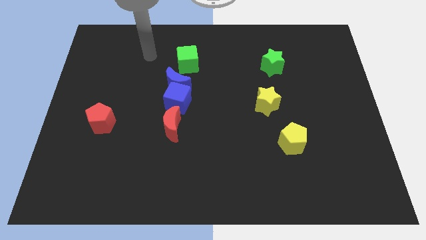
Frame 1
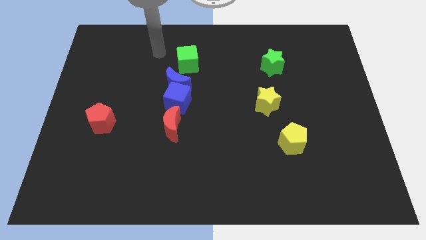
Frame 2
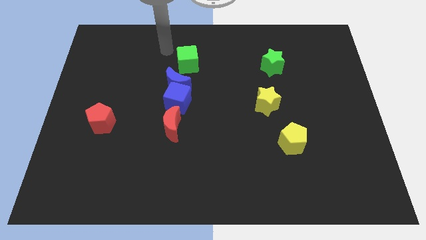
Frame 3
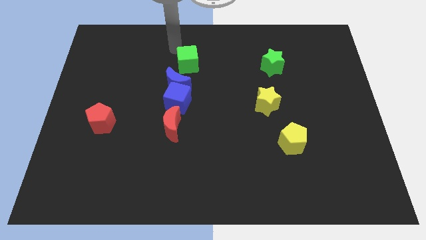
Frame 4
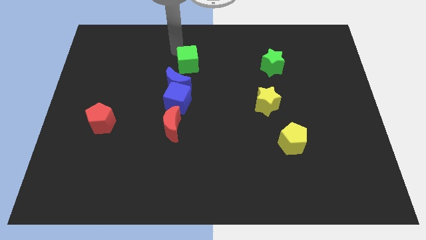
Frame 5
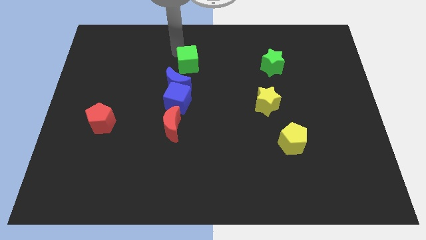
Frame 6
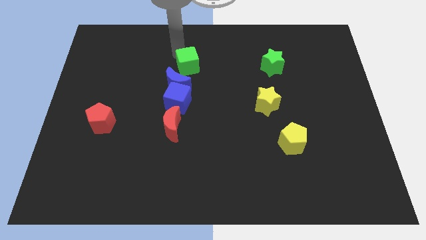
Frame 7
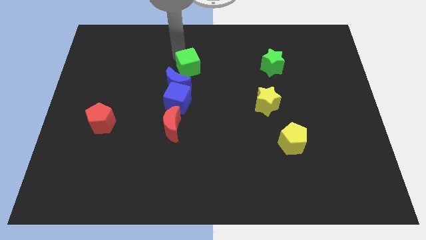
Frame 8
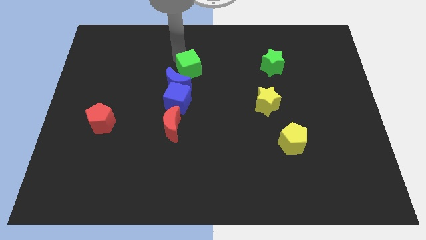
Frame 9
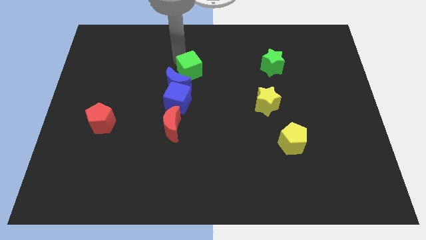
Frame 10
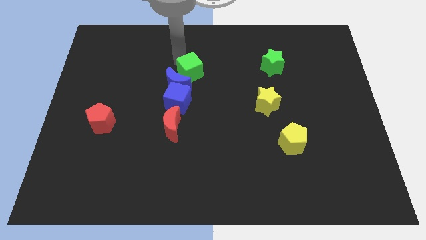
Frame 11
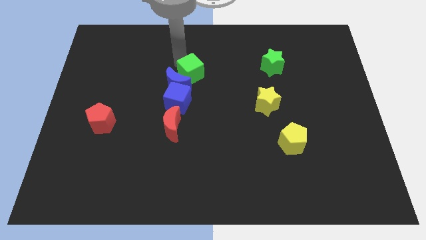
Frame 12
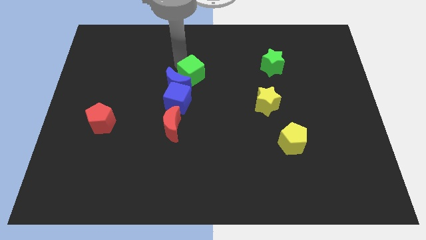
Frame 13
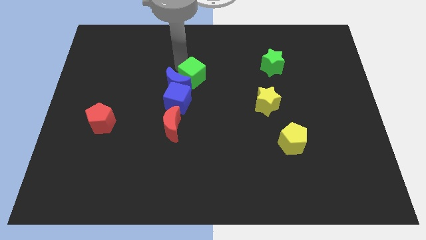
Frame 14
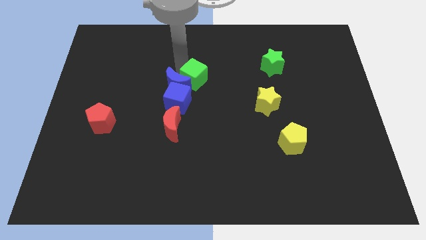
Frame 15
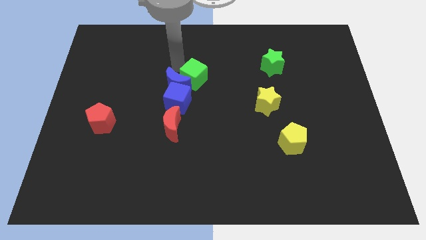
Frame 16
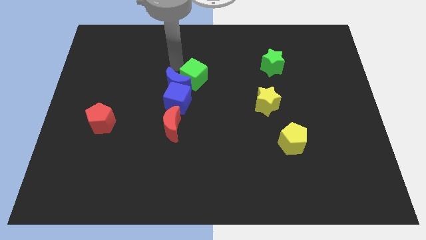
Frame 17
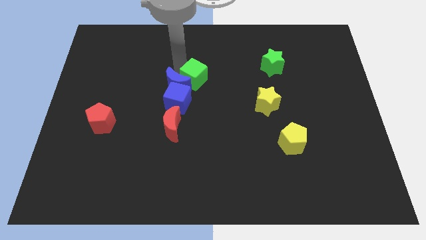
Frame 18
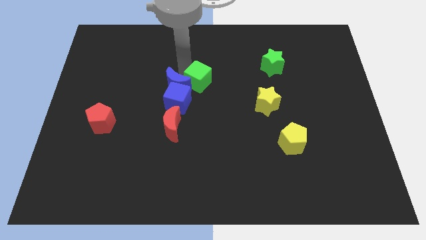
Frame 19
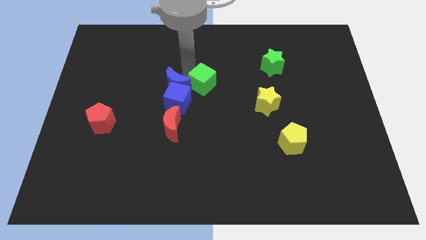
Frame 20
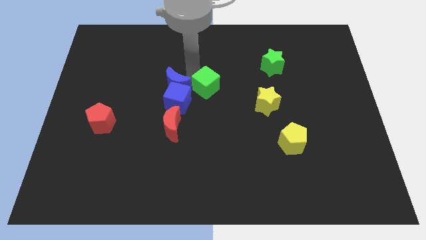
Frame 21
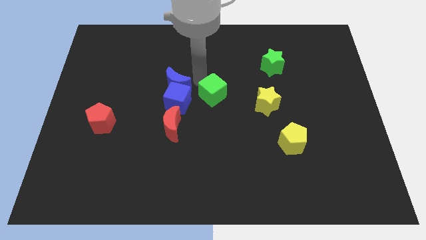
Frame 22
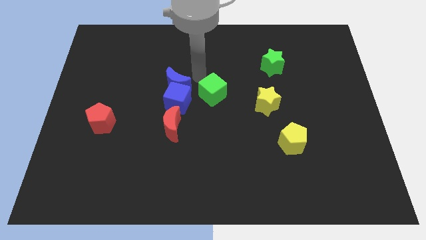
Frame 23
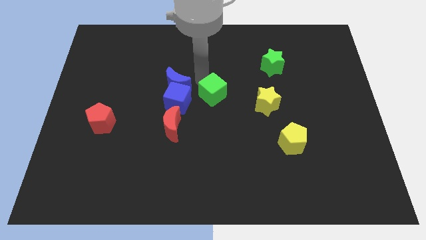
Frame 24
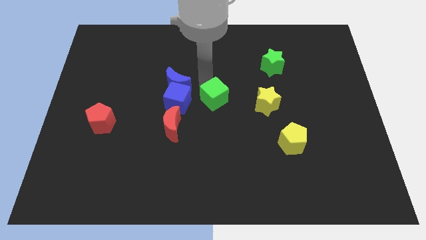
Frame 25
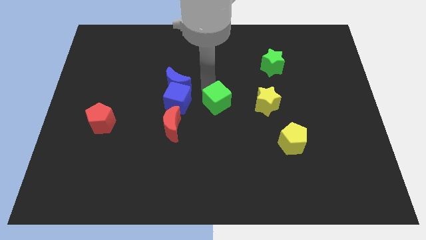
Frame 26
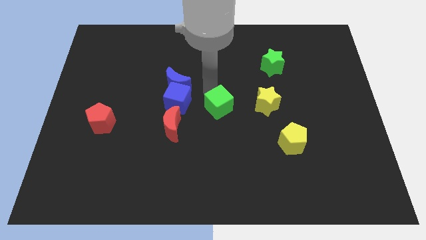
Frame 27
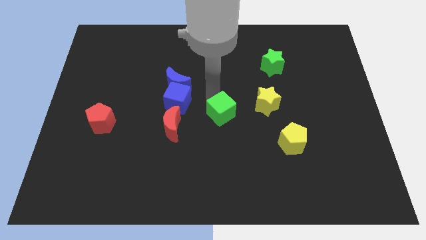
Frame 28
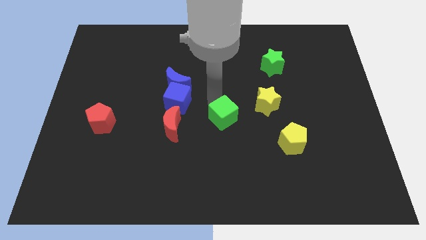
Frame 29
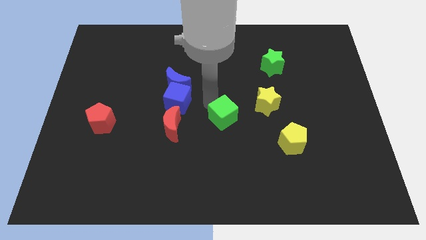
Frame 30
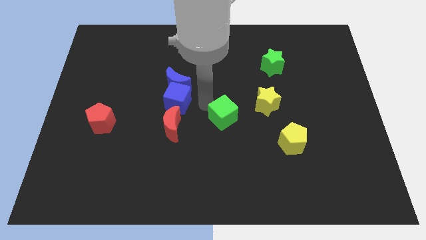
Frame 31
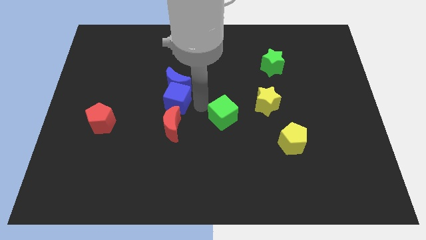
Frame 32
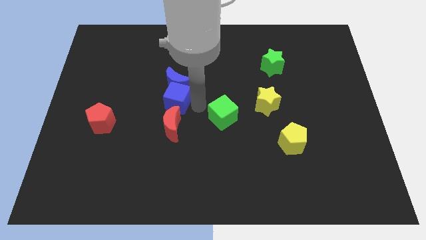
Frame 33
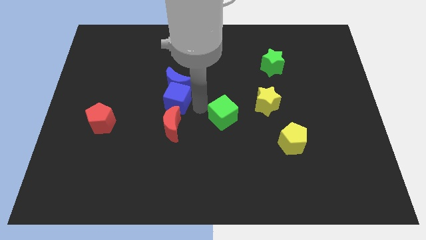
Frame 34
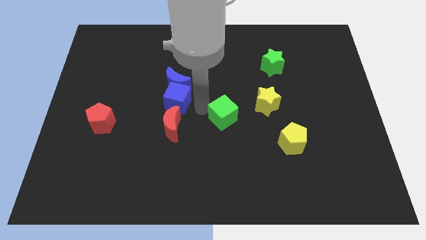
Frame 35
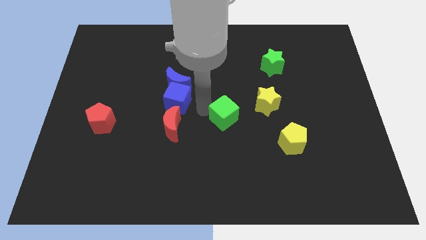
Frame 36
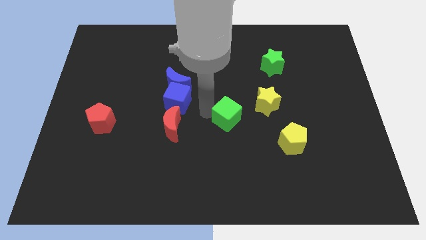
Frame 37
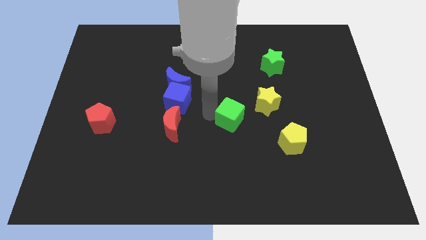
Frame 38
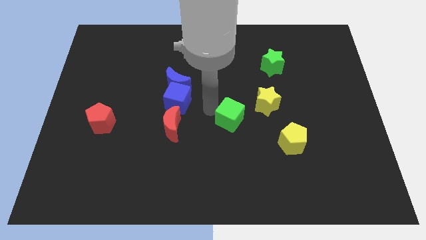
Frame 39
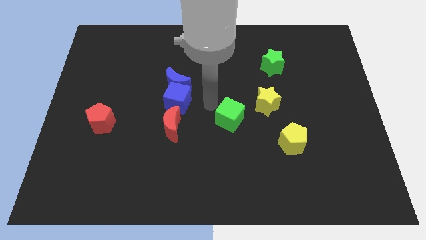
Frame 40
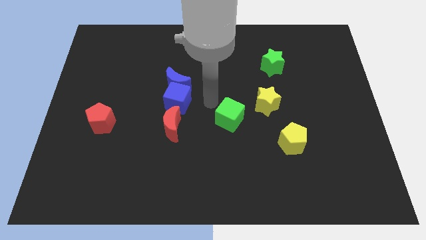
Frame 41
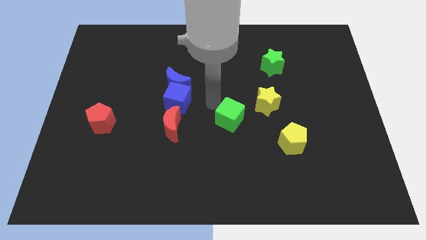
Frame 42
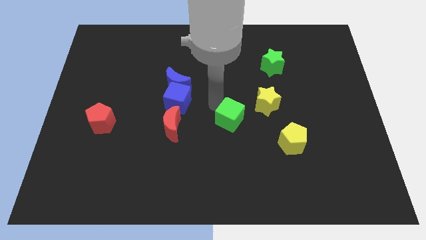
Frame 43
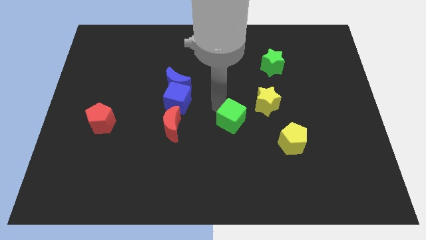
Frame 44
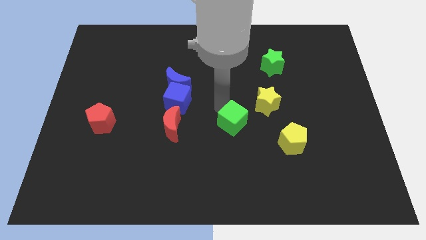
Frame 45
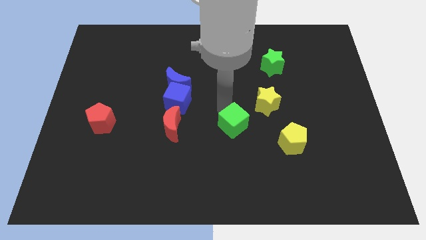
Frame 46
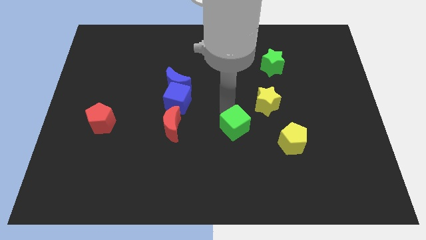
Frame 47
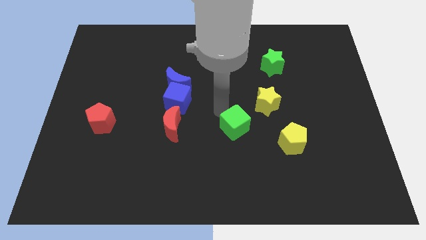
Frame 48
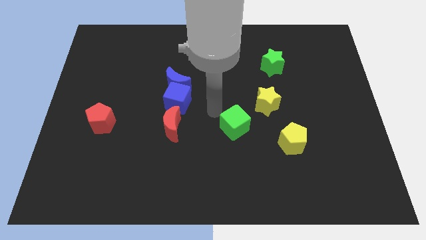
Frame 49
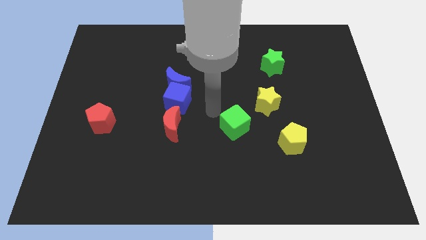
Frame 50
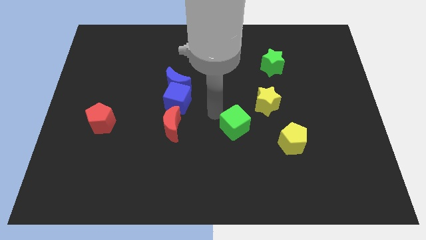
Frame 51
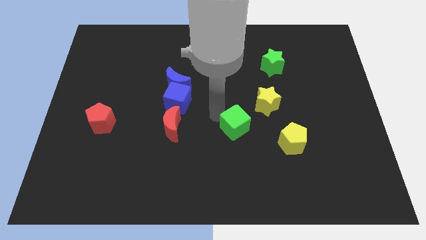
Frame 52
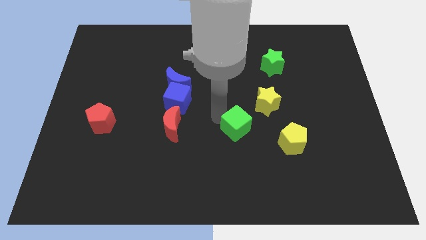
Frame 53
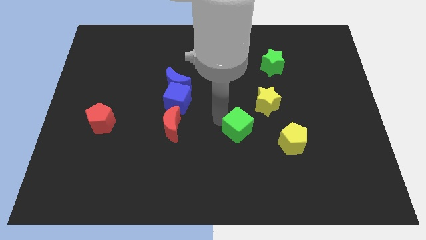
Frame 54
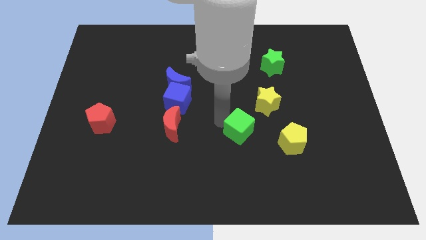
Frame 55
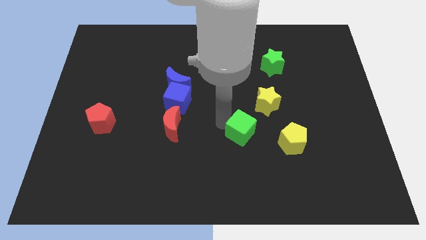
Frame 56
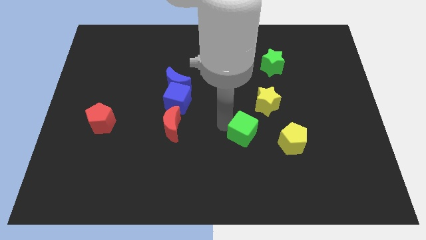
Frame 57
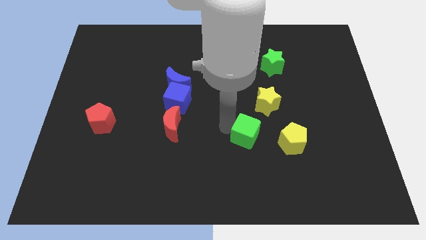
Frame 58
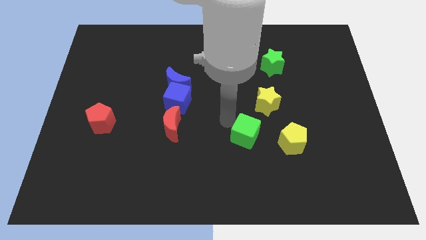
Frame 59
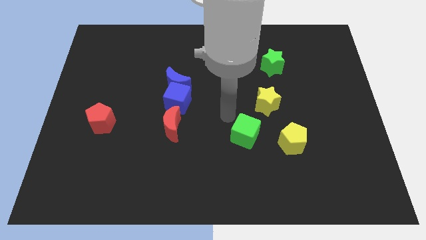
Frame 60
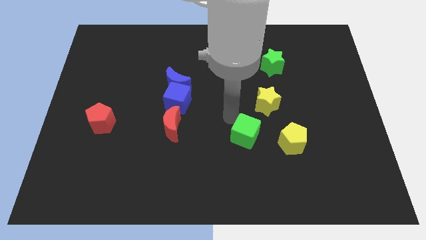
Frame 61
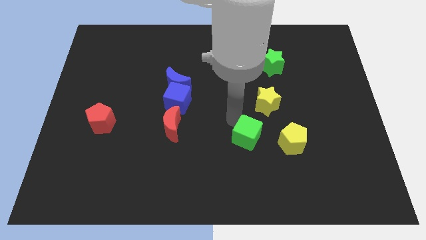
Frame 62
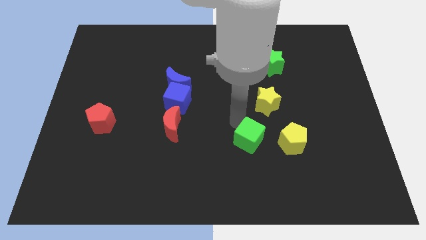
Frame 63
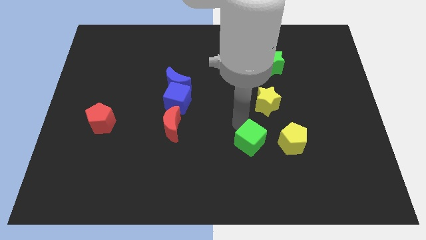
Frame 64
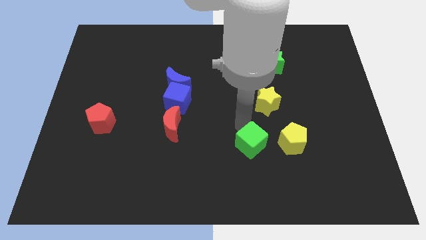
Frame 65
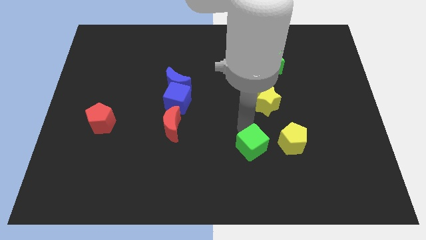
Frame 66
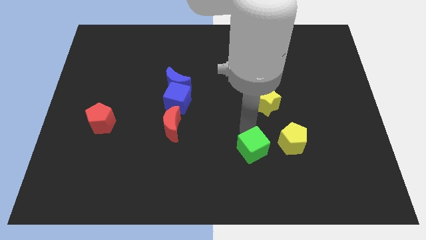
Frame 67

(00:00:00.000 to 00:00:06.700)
push the green cube diagonally down and to the left of the yellow pentagon

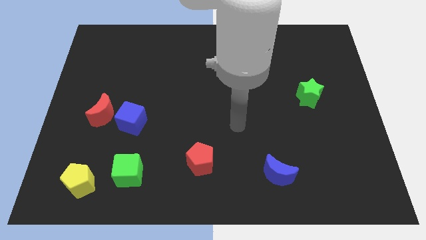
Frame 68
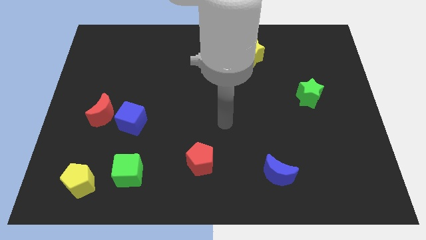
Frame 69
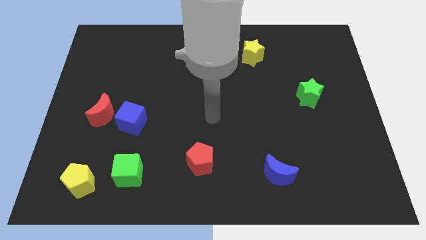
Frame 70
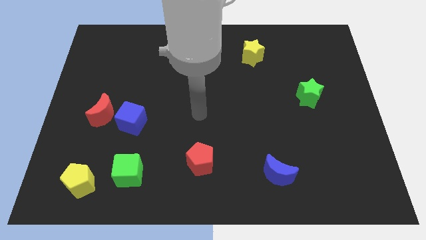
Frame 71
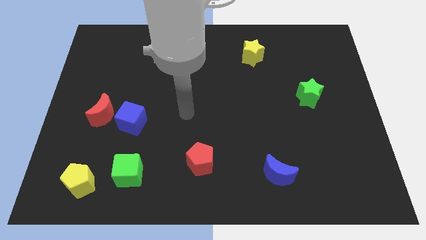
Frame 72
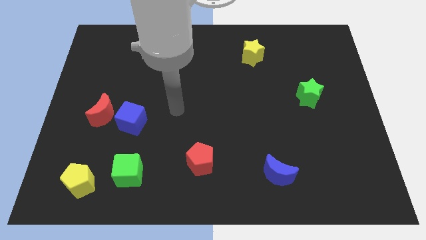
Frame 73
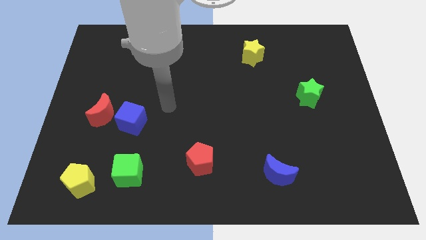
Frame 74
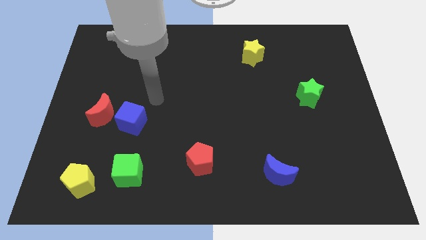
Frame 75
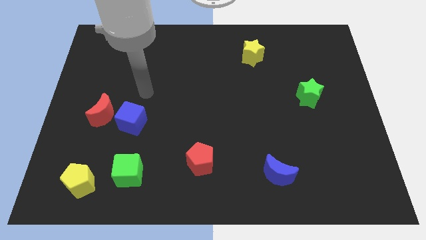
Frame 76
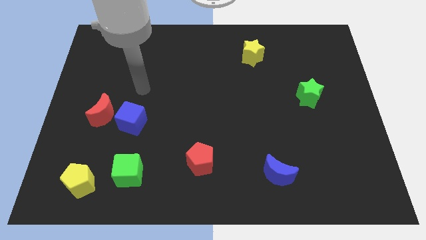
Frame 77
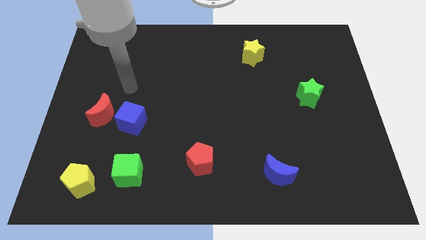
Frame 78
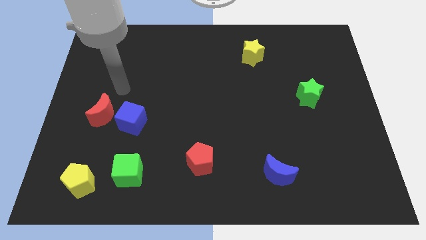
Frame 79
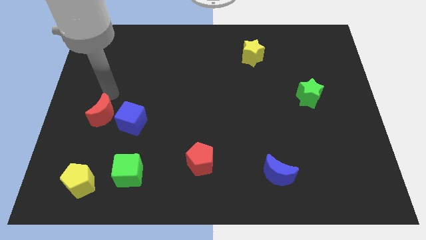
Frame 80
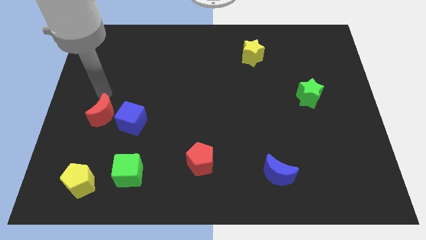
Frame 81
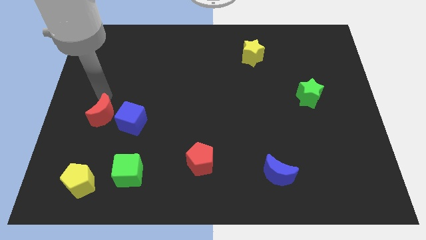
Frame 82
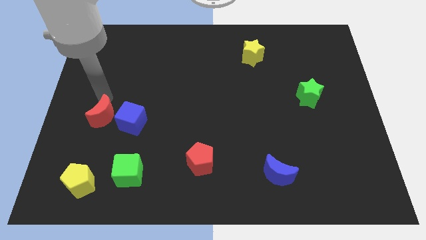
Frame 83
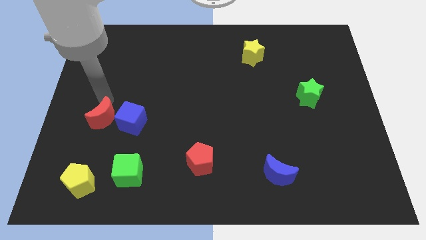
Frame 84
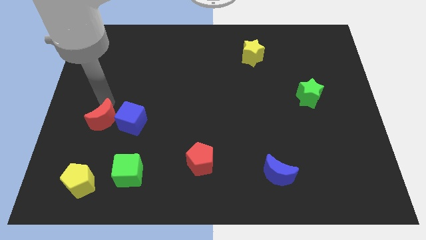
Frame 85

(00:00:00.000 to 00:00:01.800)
put the red moon to the bottom left of the blue cube
